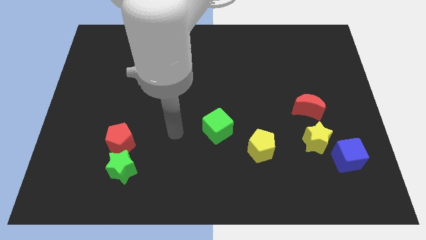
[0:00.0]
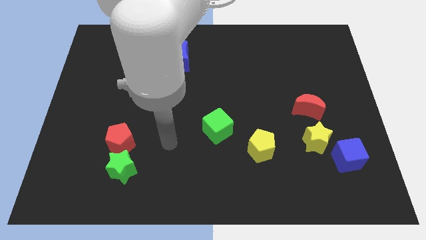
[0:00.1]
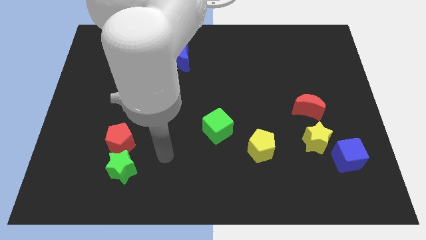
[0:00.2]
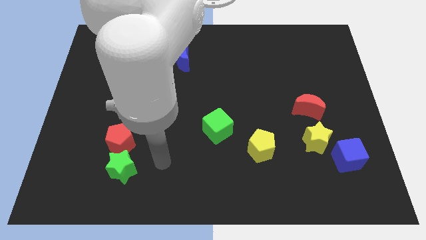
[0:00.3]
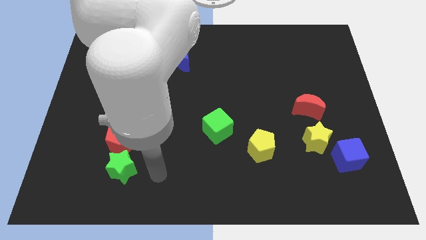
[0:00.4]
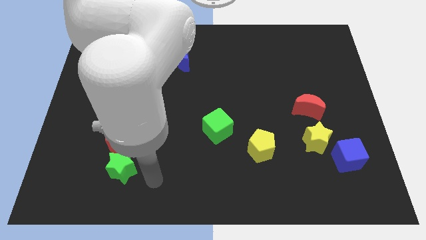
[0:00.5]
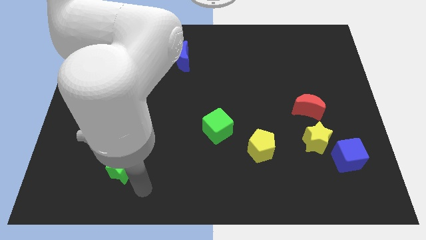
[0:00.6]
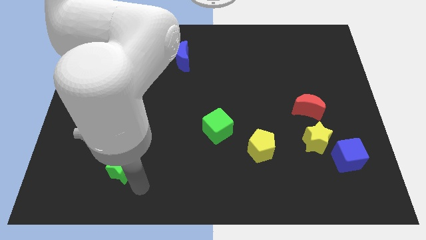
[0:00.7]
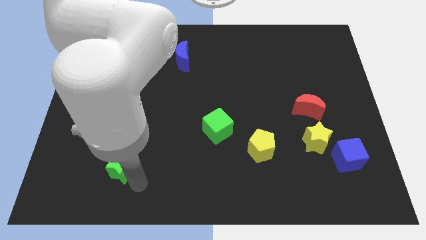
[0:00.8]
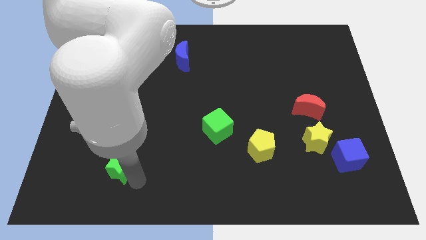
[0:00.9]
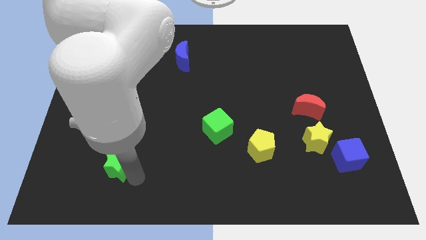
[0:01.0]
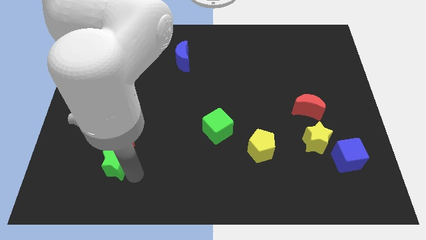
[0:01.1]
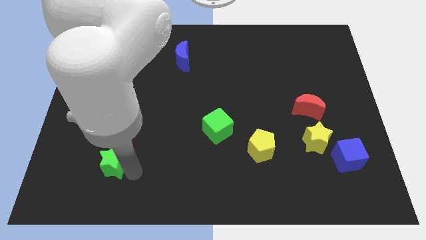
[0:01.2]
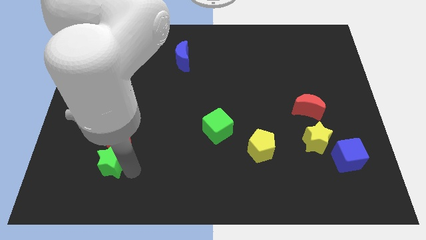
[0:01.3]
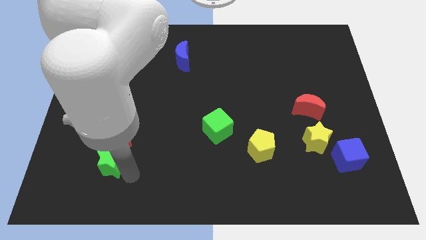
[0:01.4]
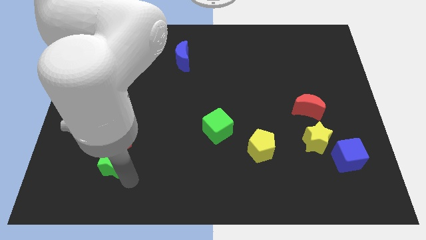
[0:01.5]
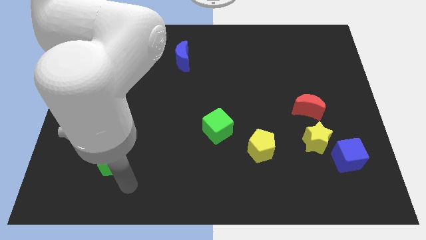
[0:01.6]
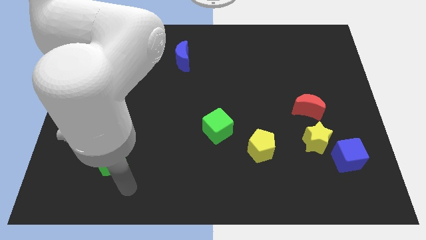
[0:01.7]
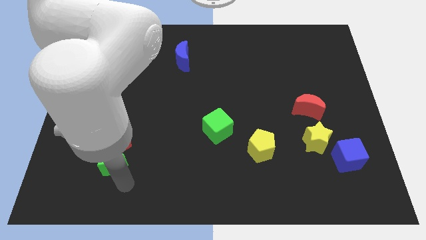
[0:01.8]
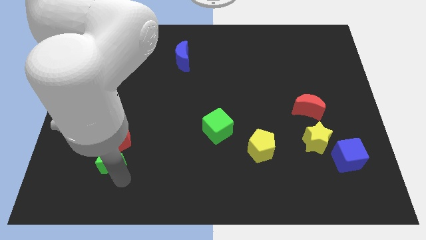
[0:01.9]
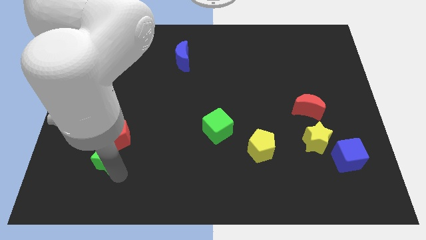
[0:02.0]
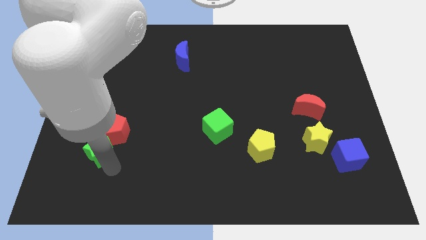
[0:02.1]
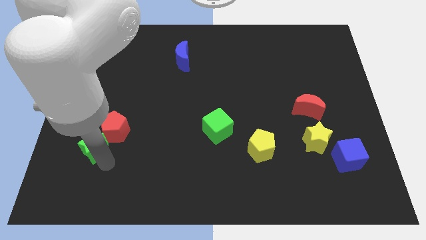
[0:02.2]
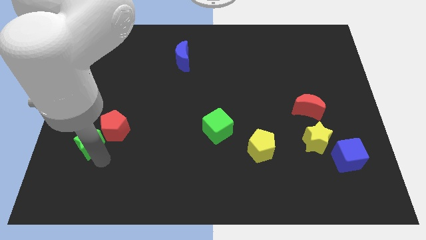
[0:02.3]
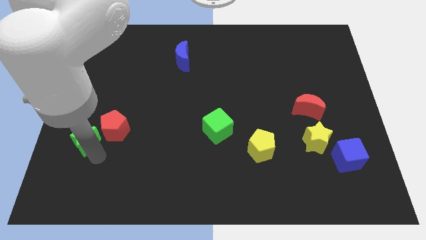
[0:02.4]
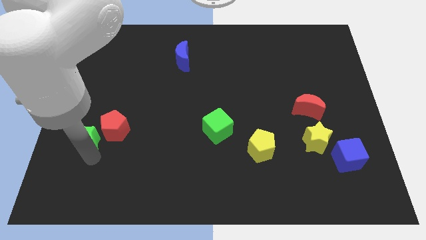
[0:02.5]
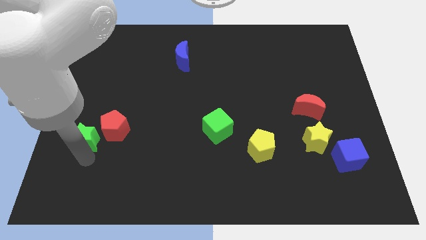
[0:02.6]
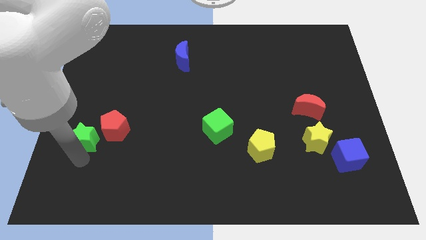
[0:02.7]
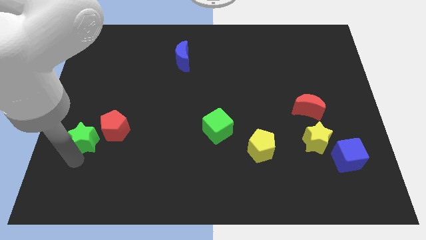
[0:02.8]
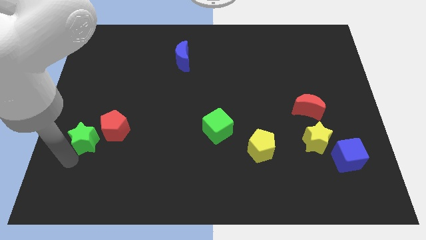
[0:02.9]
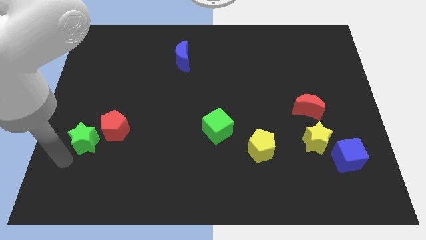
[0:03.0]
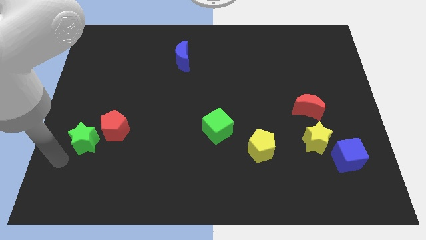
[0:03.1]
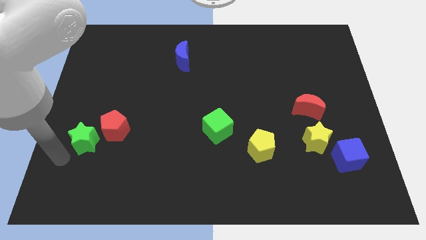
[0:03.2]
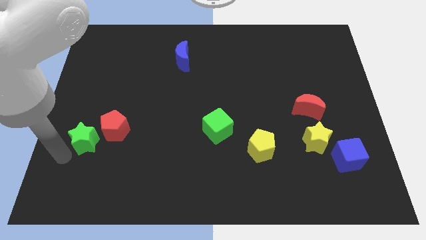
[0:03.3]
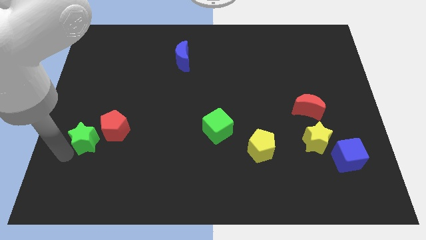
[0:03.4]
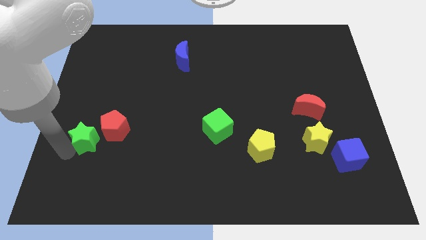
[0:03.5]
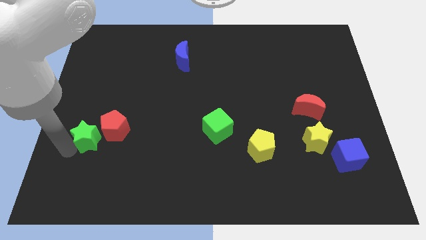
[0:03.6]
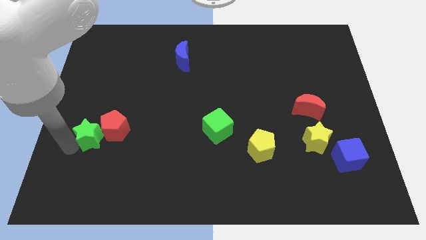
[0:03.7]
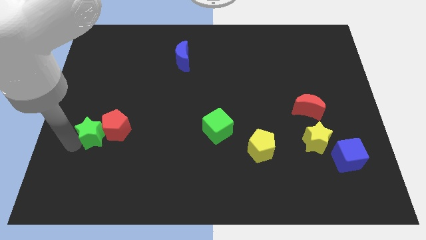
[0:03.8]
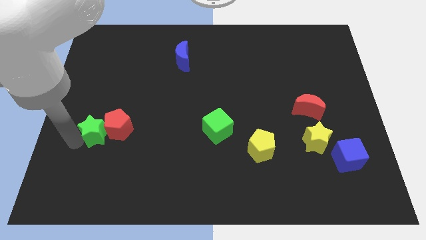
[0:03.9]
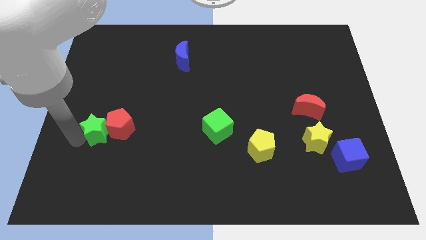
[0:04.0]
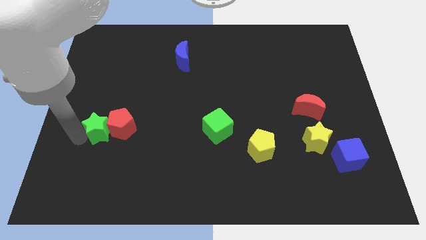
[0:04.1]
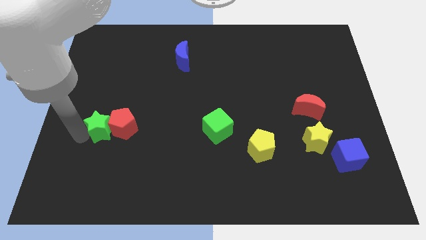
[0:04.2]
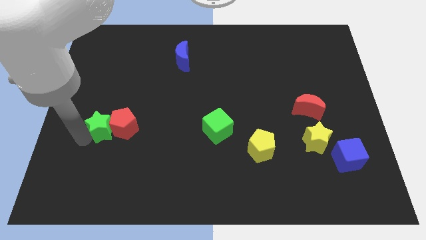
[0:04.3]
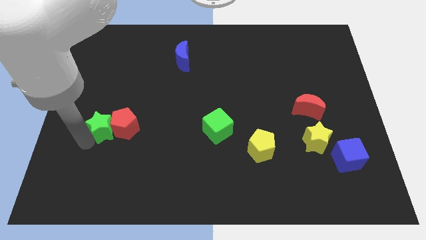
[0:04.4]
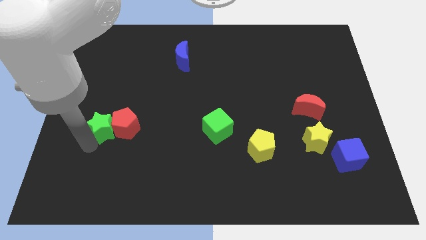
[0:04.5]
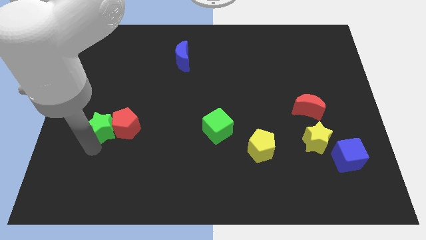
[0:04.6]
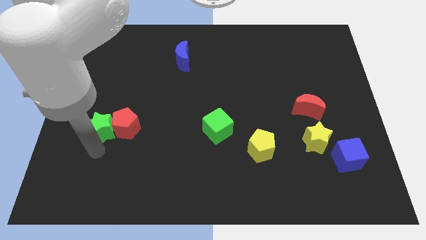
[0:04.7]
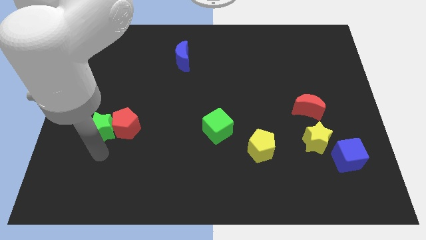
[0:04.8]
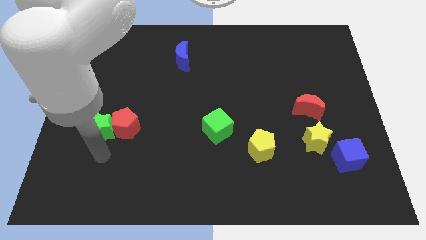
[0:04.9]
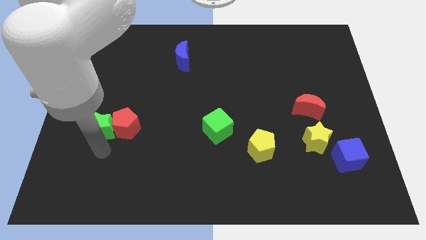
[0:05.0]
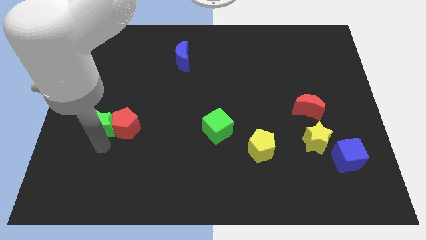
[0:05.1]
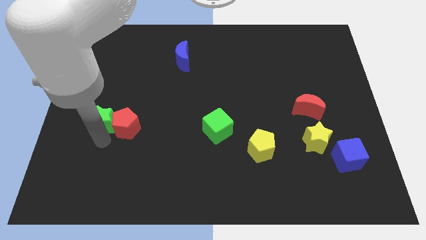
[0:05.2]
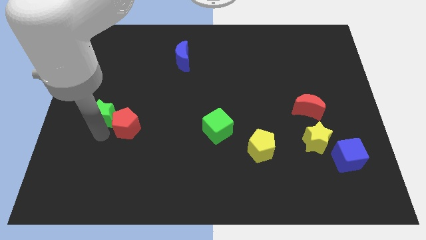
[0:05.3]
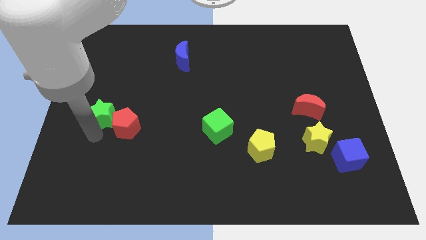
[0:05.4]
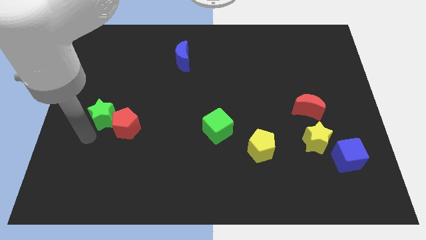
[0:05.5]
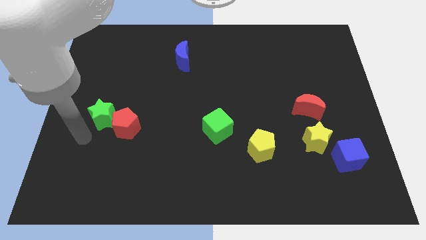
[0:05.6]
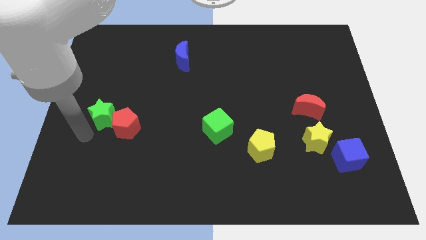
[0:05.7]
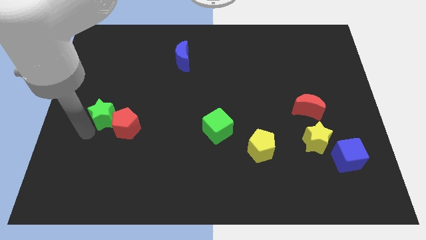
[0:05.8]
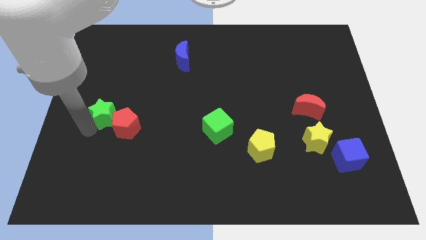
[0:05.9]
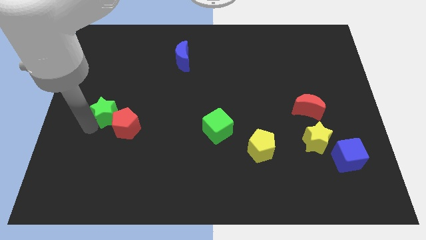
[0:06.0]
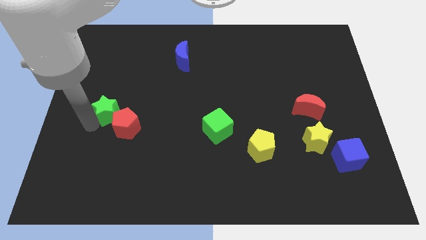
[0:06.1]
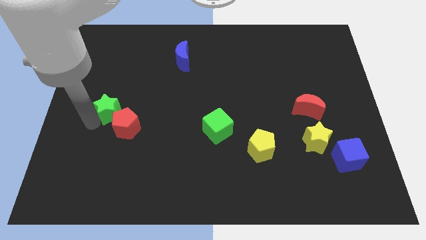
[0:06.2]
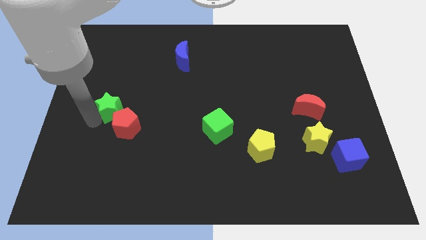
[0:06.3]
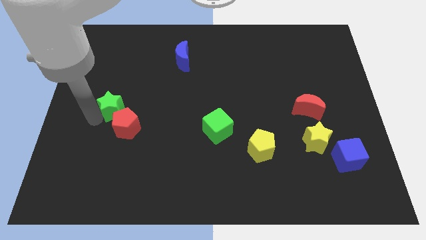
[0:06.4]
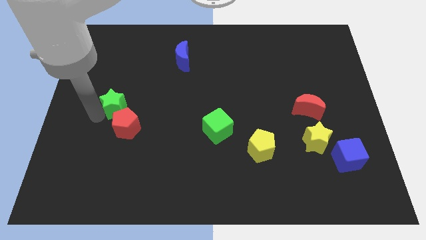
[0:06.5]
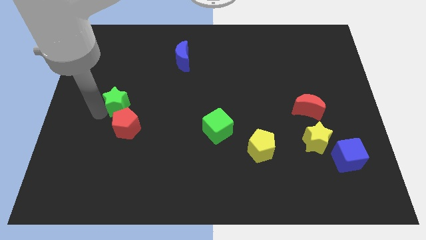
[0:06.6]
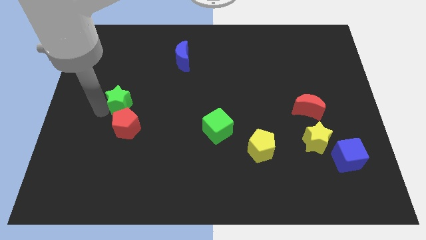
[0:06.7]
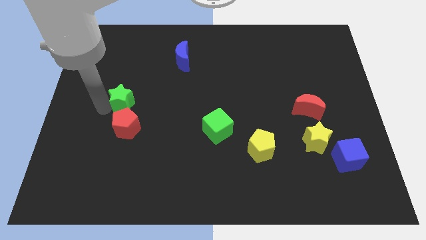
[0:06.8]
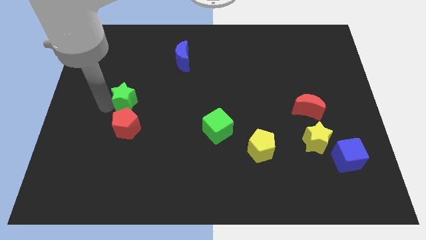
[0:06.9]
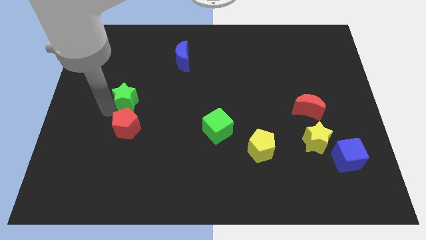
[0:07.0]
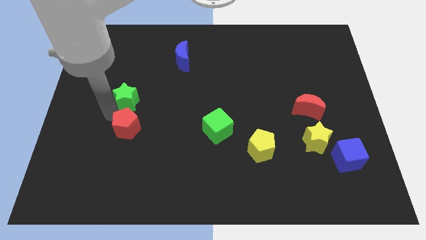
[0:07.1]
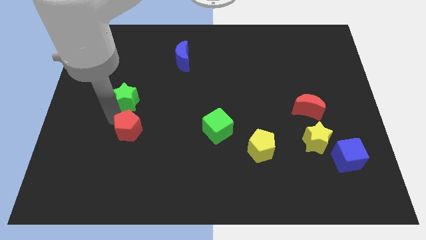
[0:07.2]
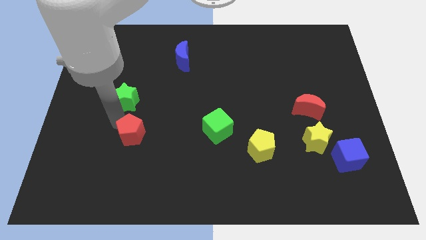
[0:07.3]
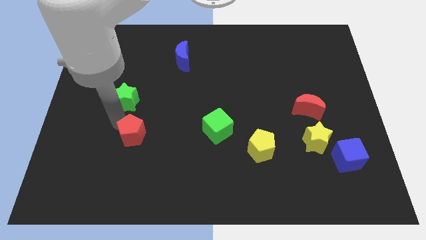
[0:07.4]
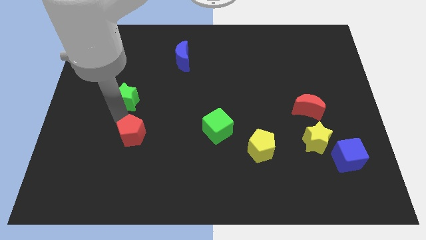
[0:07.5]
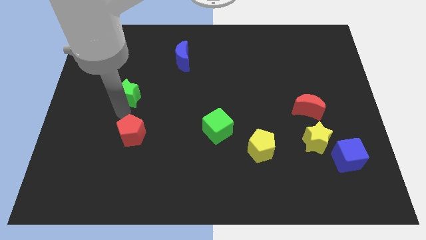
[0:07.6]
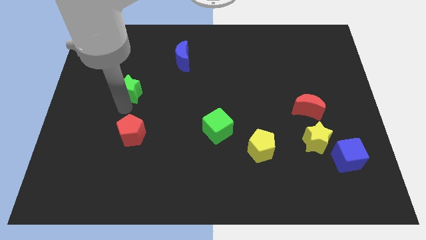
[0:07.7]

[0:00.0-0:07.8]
push the green star up
